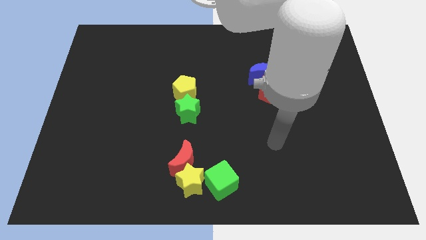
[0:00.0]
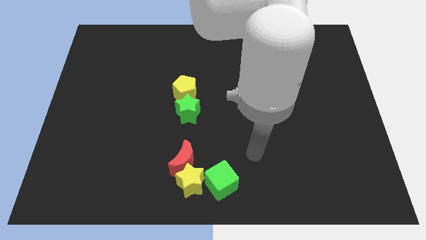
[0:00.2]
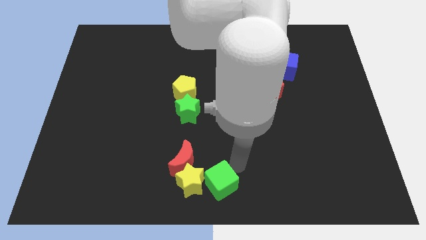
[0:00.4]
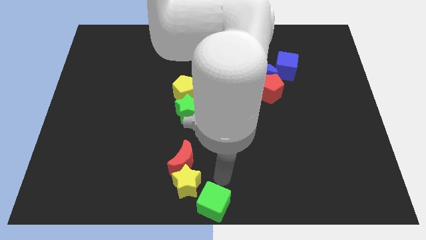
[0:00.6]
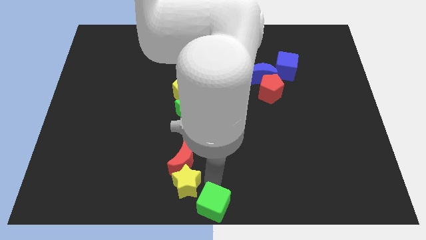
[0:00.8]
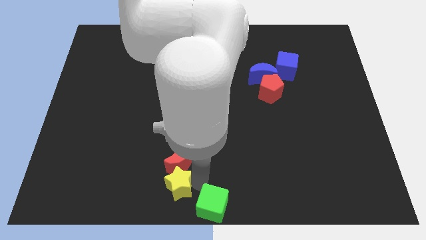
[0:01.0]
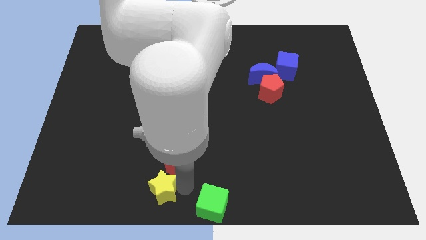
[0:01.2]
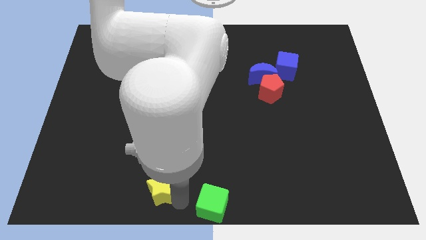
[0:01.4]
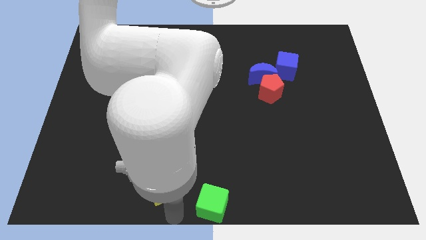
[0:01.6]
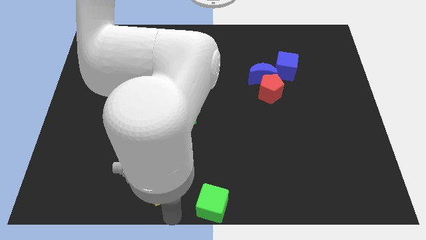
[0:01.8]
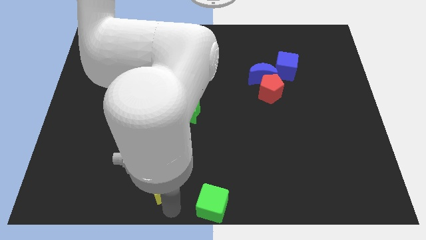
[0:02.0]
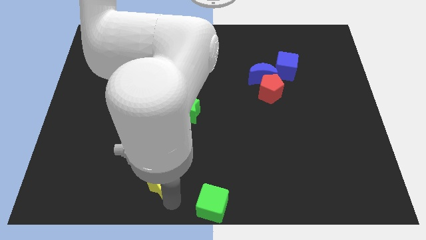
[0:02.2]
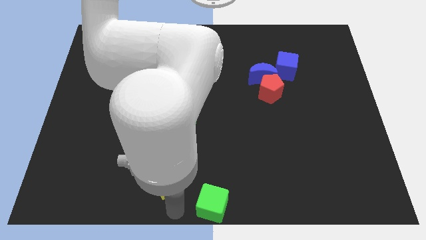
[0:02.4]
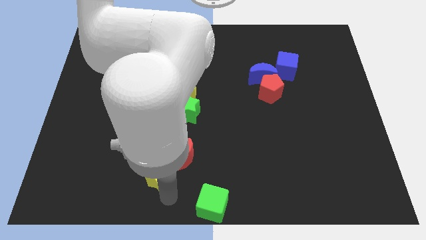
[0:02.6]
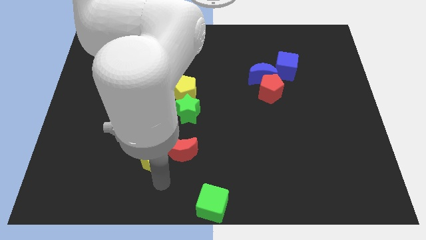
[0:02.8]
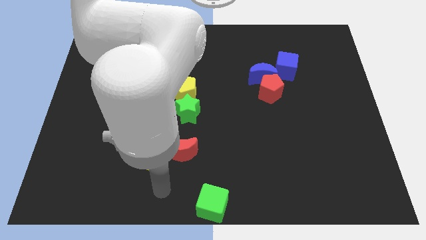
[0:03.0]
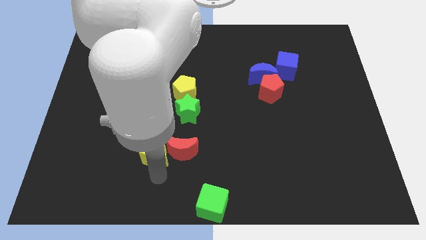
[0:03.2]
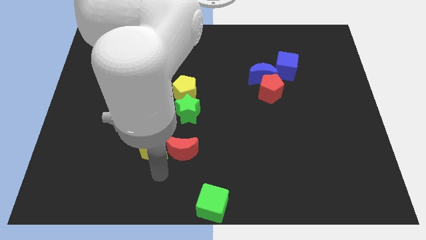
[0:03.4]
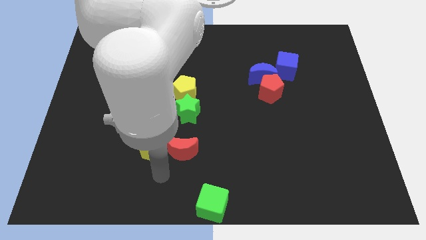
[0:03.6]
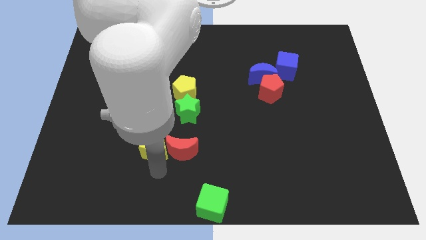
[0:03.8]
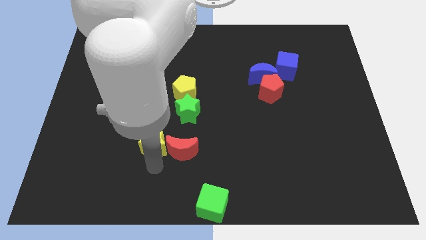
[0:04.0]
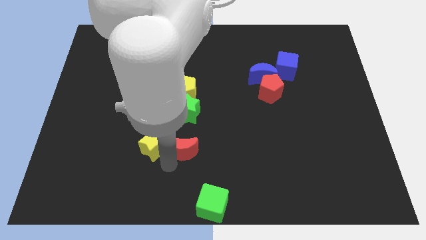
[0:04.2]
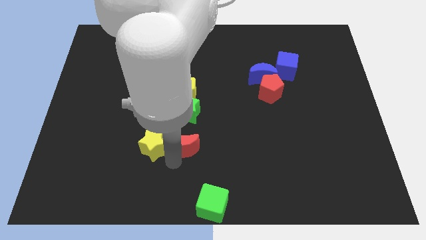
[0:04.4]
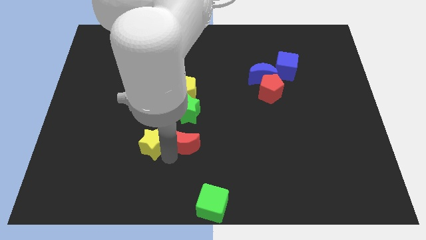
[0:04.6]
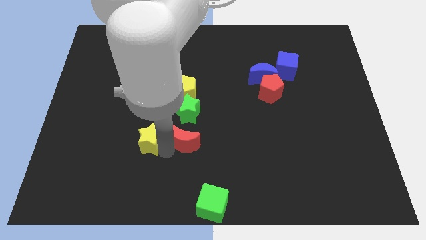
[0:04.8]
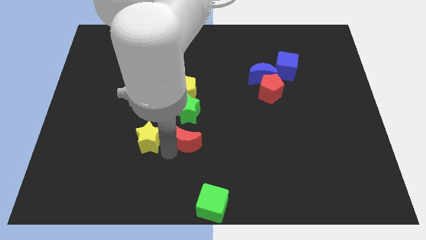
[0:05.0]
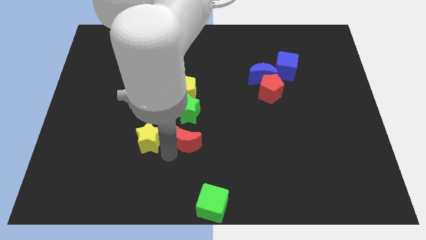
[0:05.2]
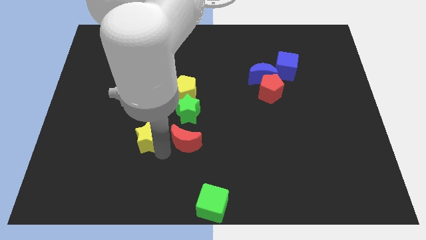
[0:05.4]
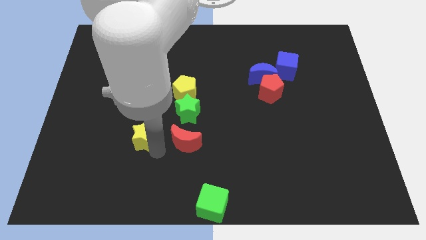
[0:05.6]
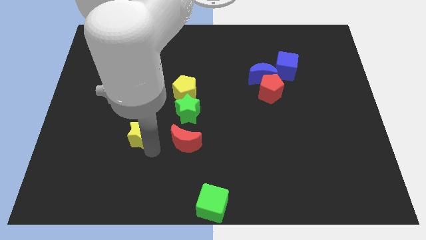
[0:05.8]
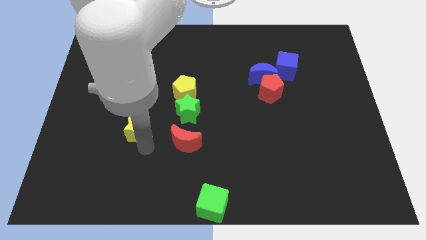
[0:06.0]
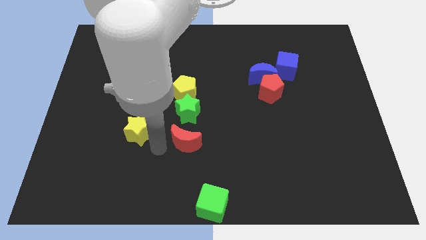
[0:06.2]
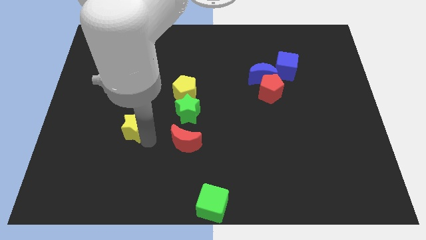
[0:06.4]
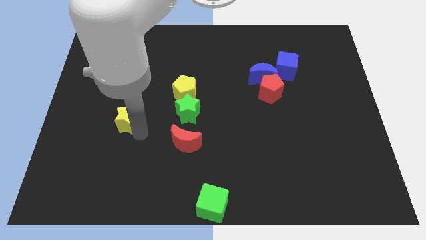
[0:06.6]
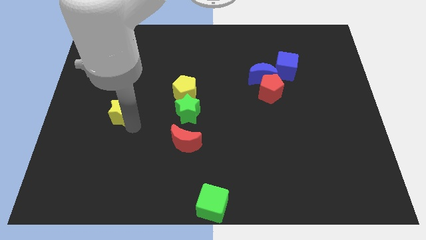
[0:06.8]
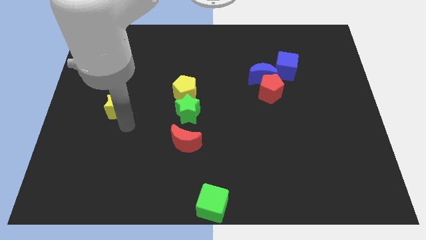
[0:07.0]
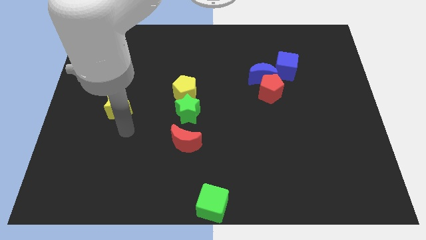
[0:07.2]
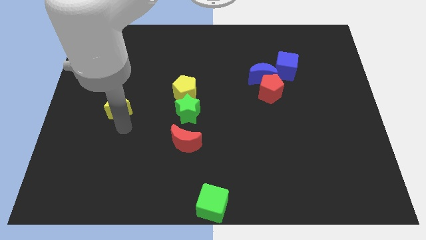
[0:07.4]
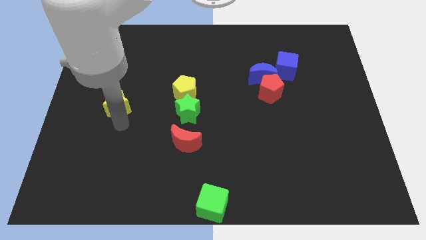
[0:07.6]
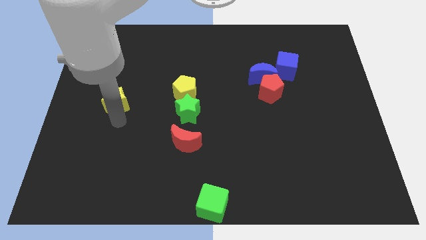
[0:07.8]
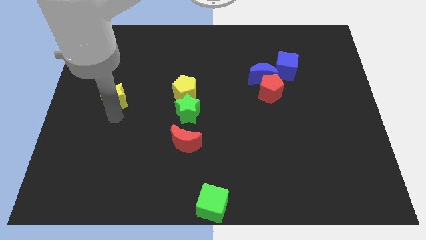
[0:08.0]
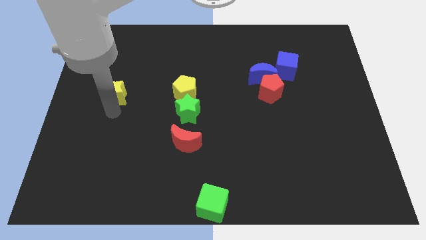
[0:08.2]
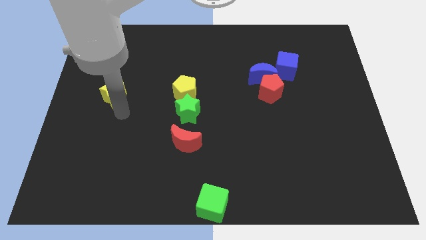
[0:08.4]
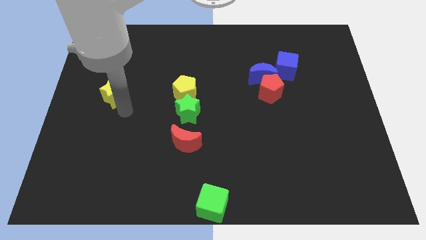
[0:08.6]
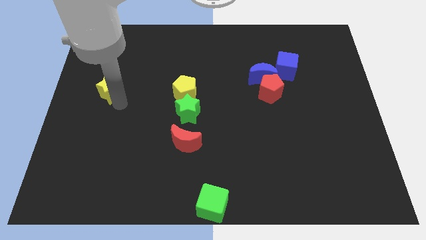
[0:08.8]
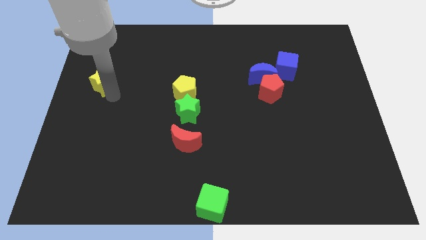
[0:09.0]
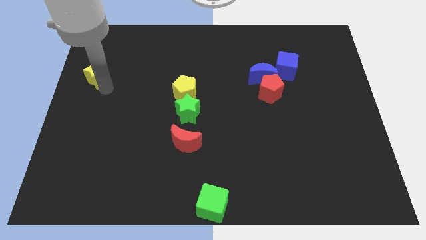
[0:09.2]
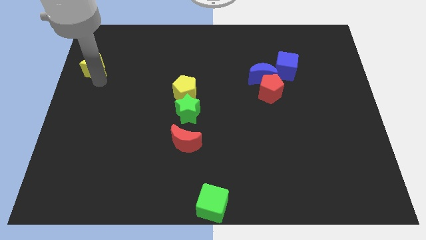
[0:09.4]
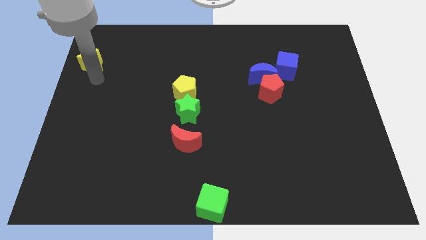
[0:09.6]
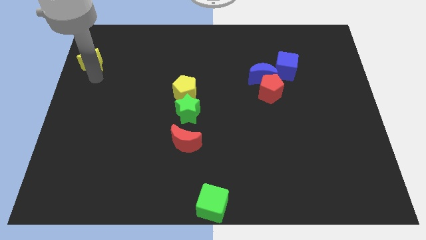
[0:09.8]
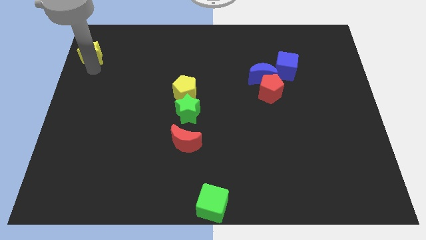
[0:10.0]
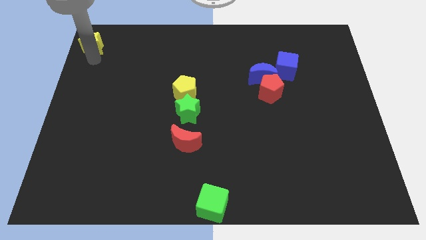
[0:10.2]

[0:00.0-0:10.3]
put the yellow star to the top left

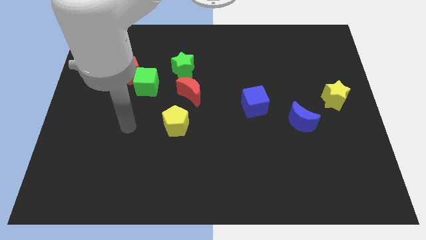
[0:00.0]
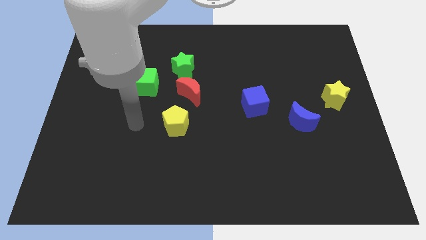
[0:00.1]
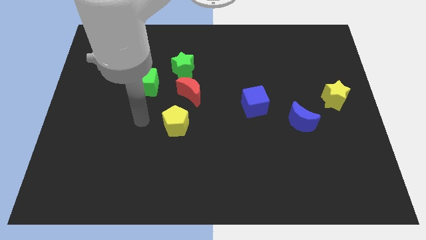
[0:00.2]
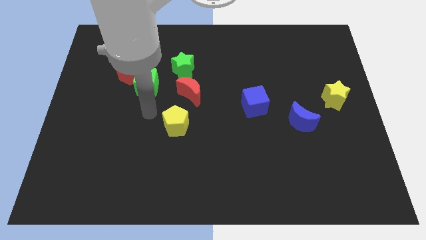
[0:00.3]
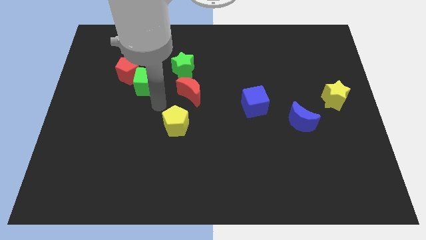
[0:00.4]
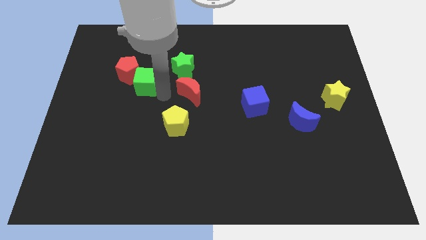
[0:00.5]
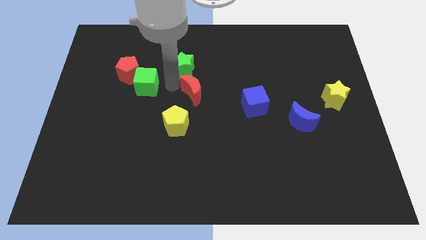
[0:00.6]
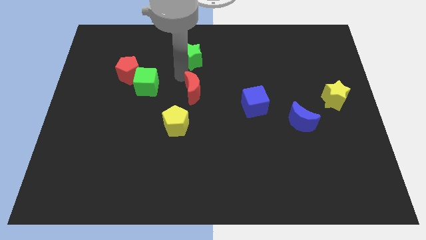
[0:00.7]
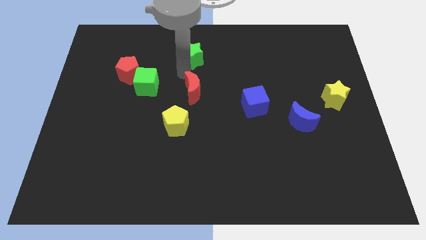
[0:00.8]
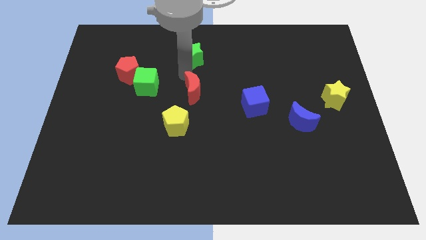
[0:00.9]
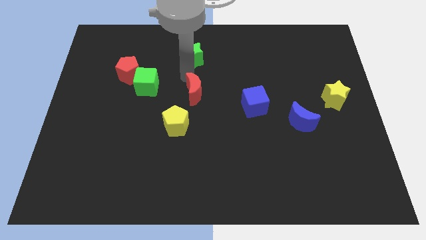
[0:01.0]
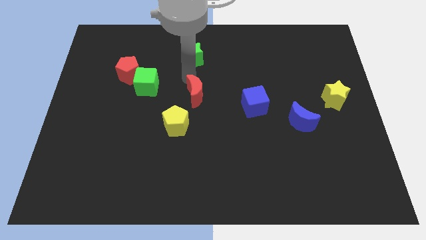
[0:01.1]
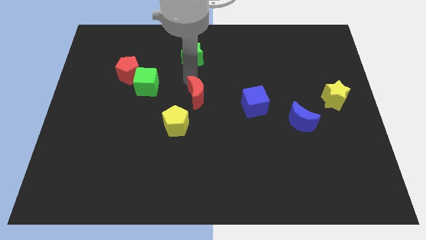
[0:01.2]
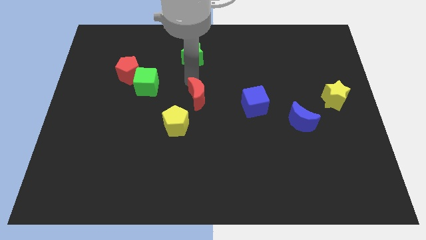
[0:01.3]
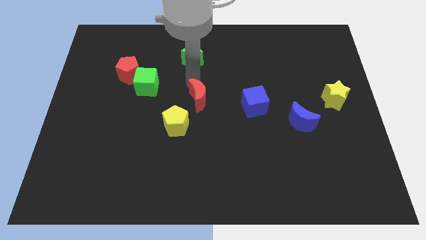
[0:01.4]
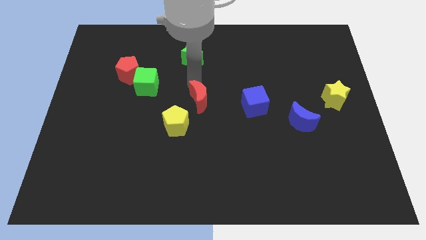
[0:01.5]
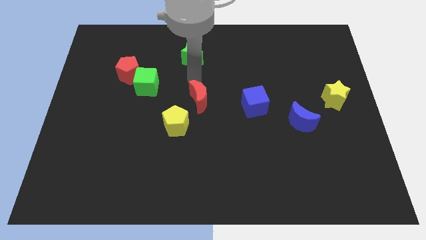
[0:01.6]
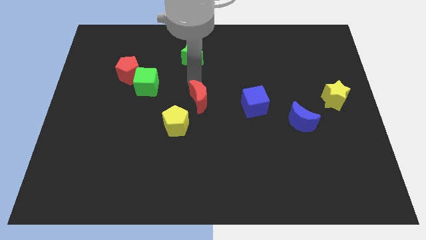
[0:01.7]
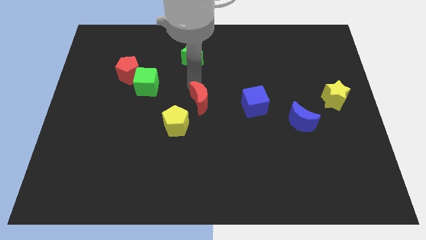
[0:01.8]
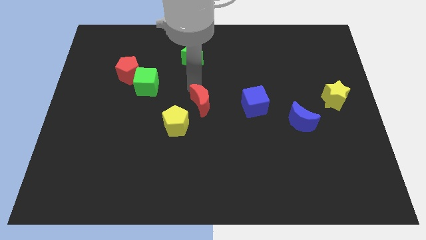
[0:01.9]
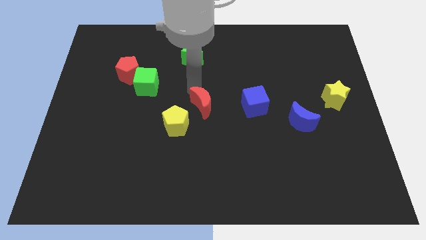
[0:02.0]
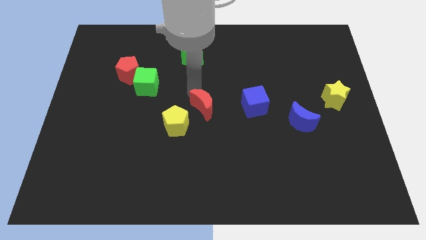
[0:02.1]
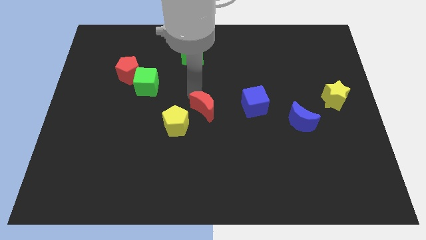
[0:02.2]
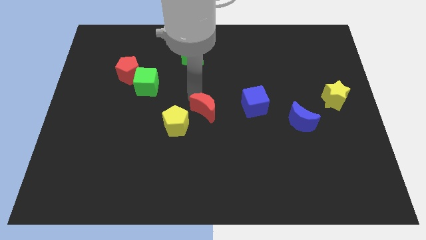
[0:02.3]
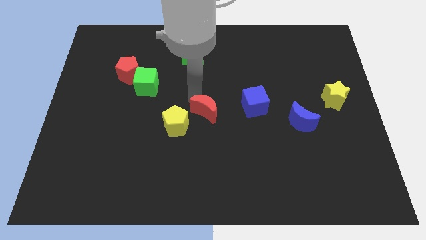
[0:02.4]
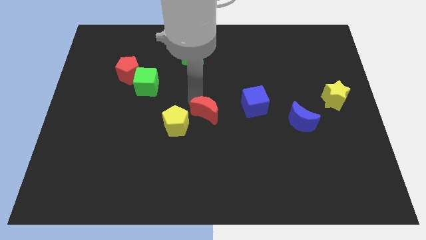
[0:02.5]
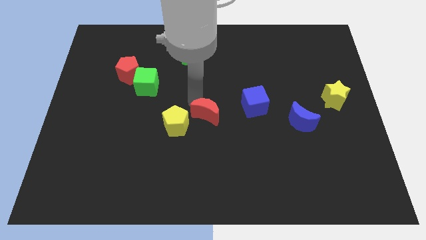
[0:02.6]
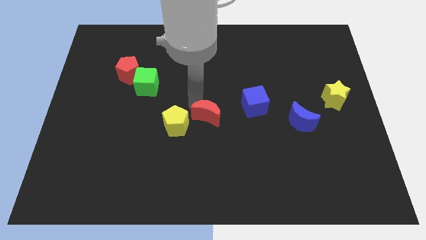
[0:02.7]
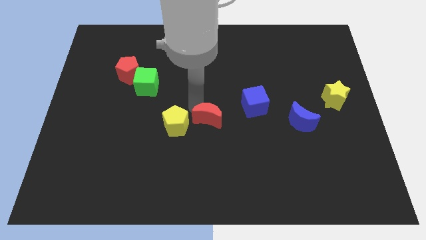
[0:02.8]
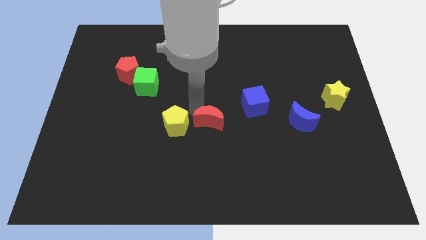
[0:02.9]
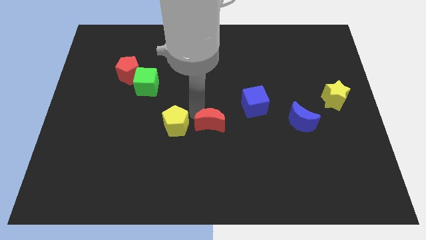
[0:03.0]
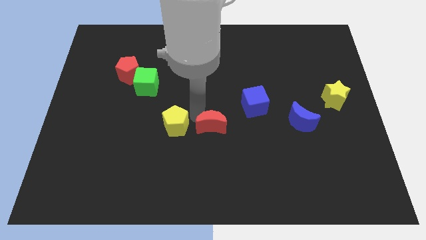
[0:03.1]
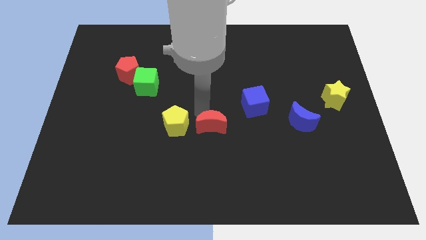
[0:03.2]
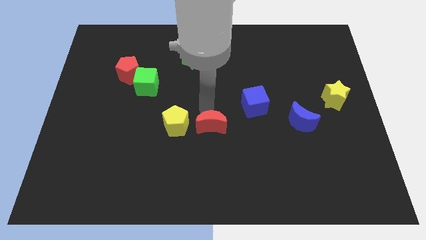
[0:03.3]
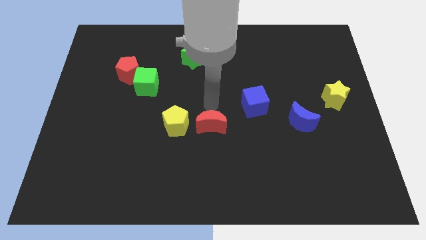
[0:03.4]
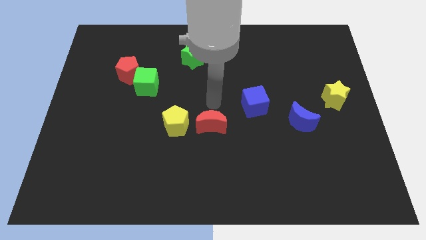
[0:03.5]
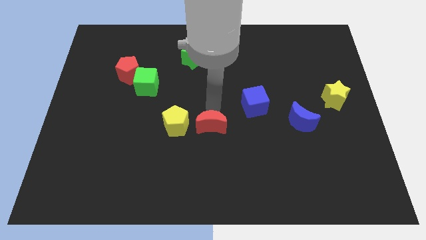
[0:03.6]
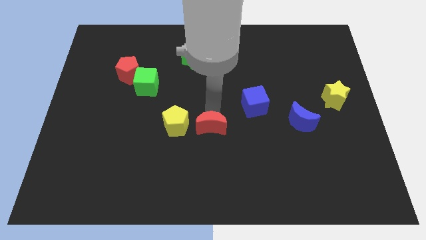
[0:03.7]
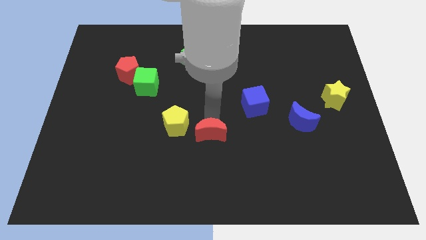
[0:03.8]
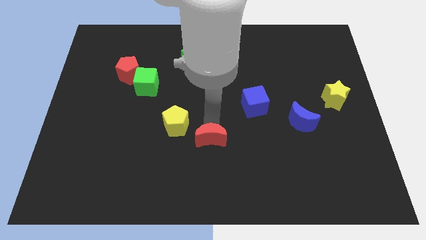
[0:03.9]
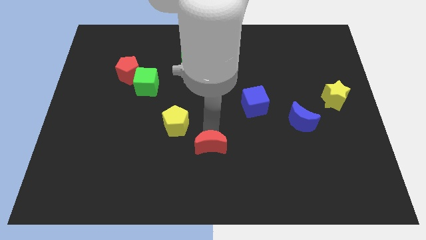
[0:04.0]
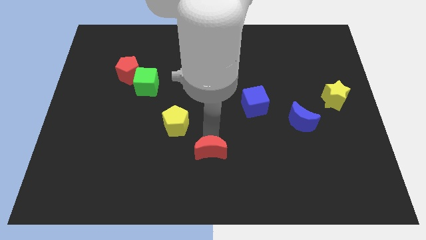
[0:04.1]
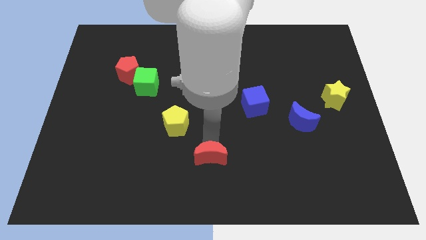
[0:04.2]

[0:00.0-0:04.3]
push the red moon to the bottom
